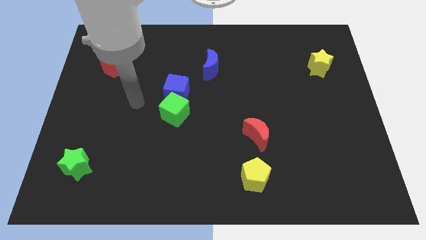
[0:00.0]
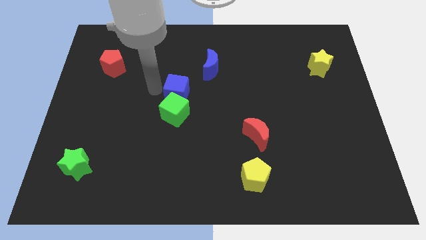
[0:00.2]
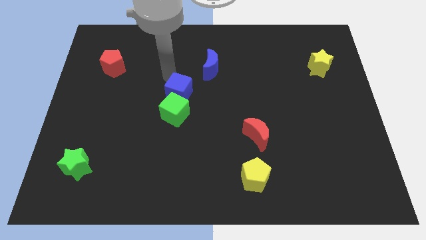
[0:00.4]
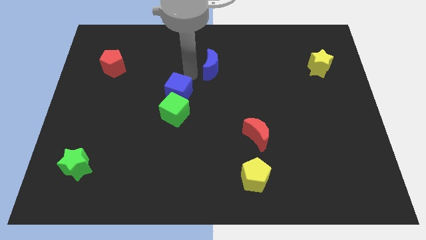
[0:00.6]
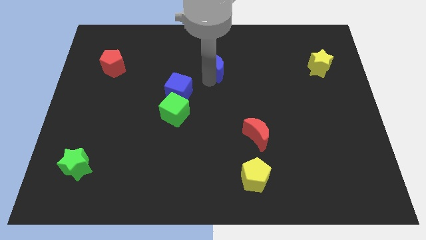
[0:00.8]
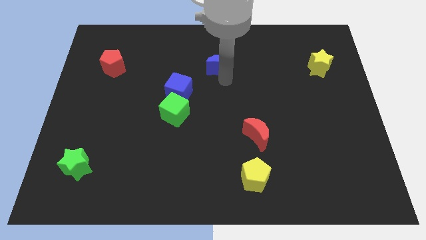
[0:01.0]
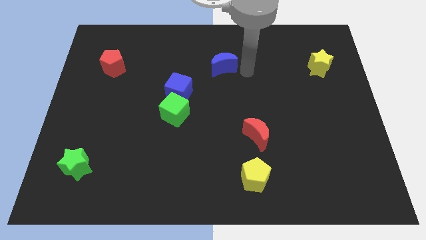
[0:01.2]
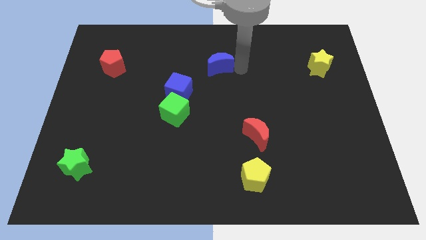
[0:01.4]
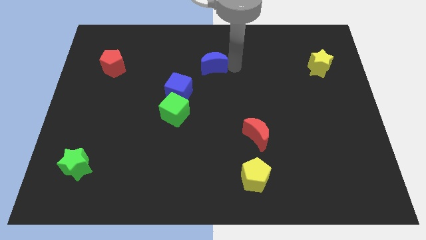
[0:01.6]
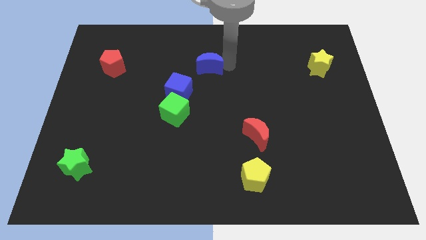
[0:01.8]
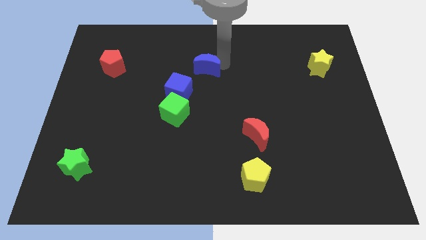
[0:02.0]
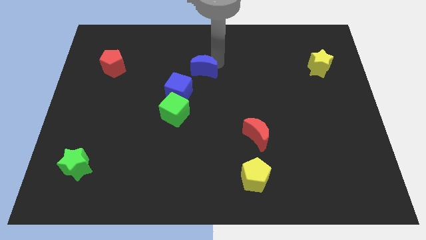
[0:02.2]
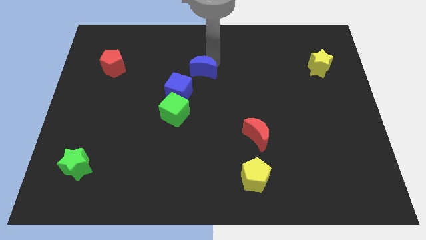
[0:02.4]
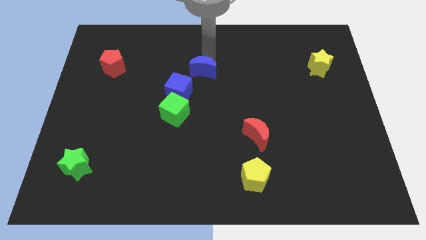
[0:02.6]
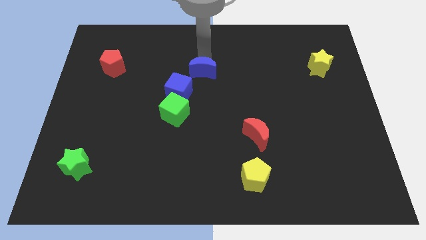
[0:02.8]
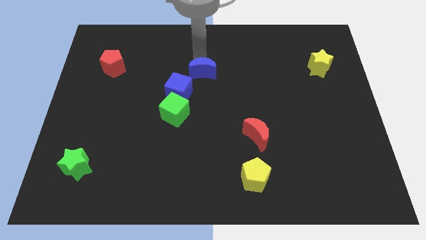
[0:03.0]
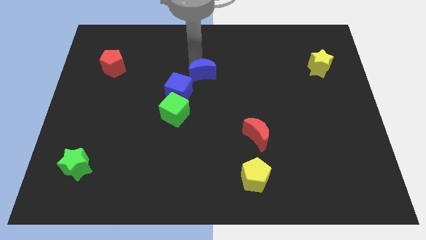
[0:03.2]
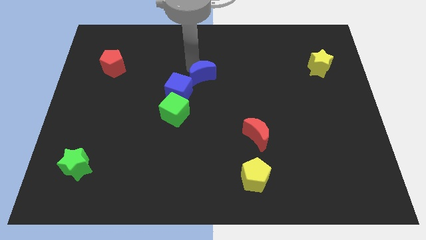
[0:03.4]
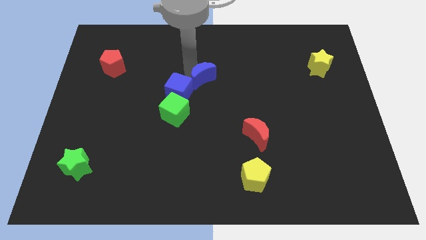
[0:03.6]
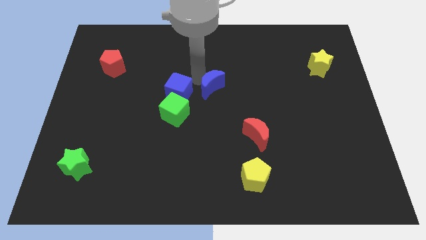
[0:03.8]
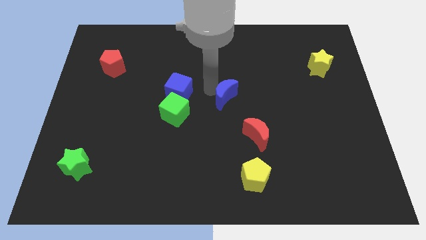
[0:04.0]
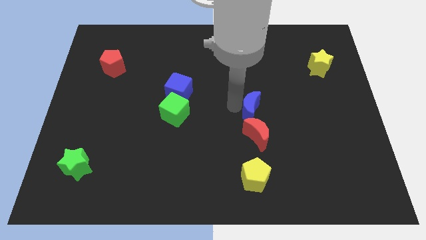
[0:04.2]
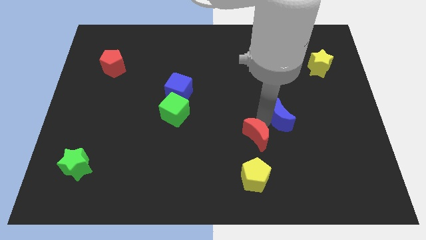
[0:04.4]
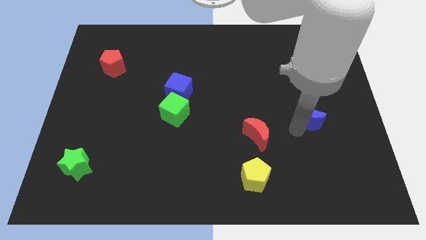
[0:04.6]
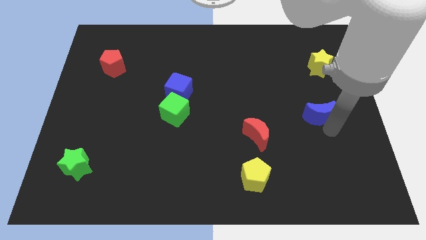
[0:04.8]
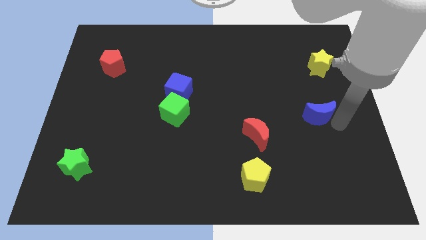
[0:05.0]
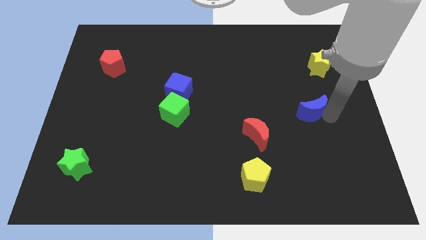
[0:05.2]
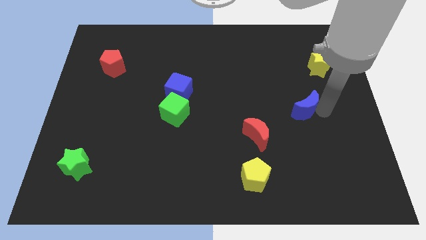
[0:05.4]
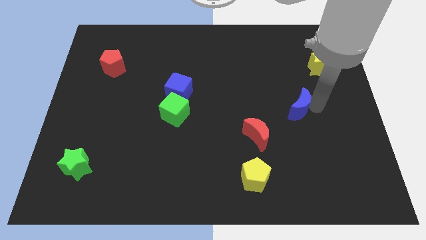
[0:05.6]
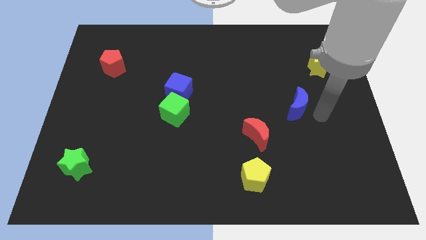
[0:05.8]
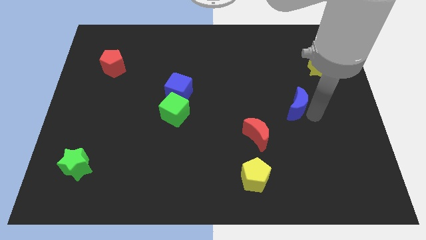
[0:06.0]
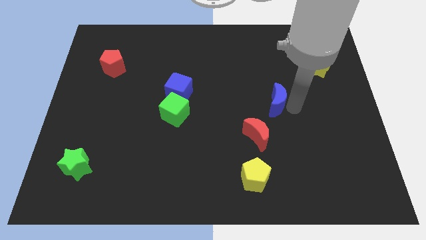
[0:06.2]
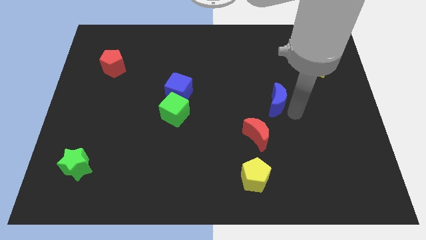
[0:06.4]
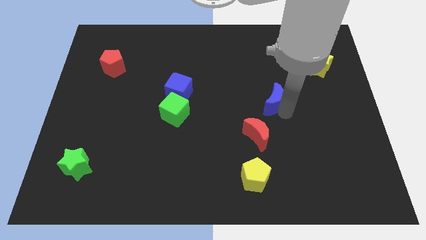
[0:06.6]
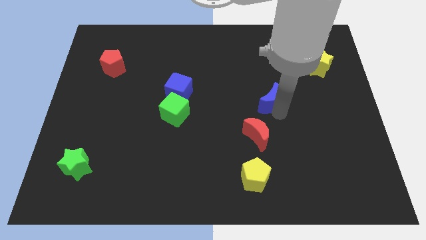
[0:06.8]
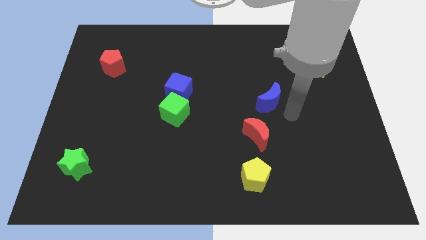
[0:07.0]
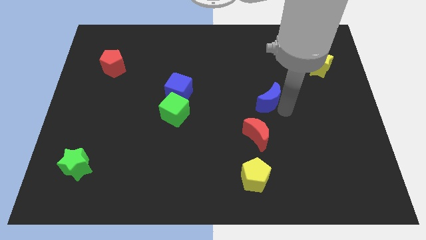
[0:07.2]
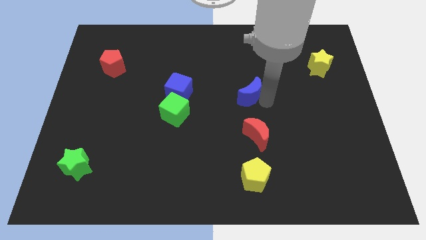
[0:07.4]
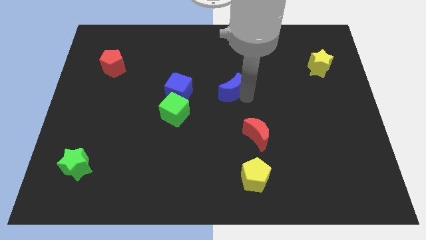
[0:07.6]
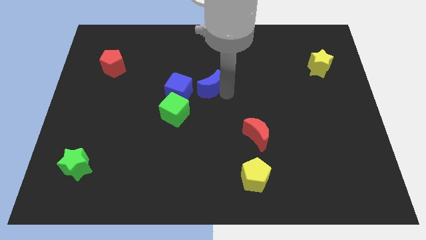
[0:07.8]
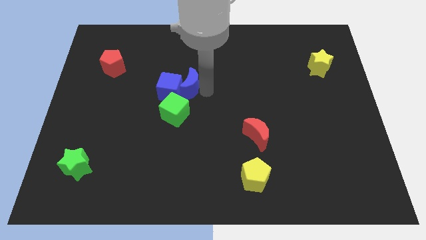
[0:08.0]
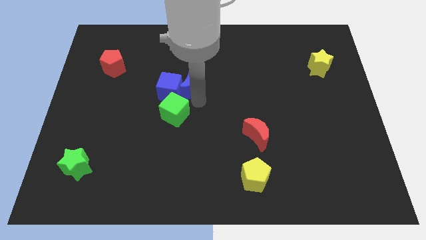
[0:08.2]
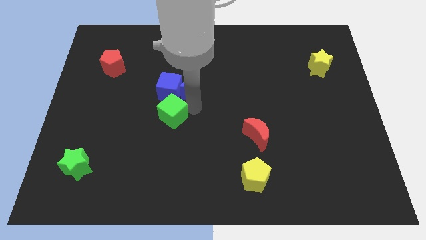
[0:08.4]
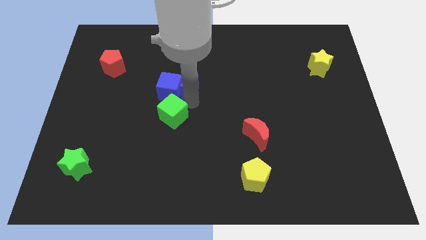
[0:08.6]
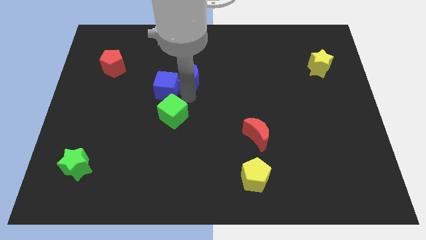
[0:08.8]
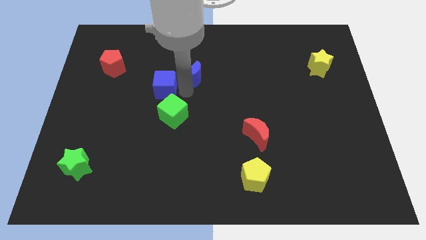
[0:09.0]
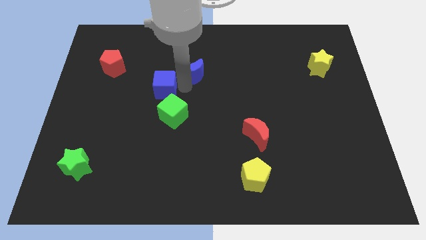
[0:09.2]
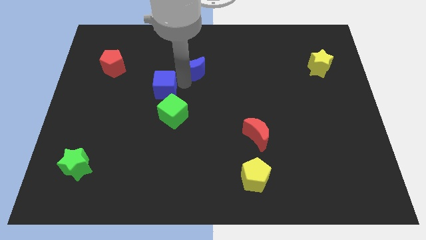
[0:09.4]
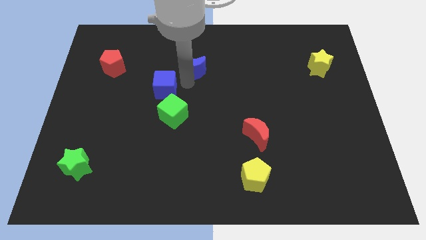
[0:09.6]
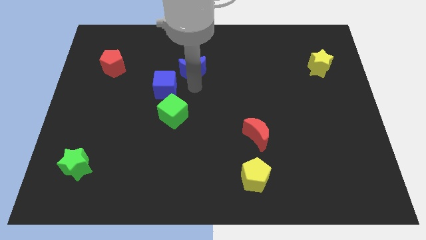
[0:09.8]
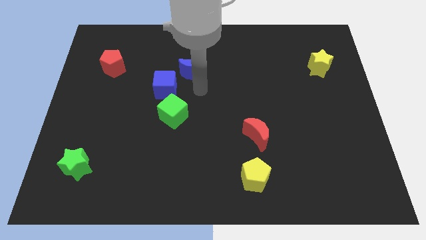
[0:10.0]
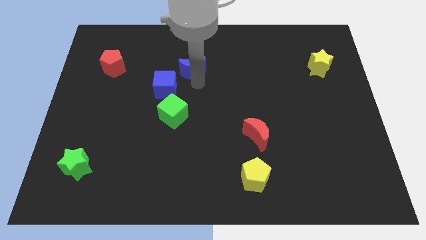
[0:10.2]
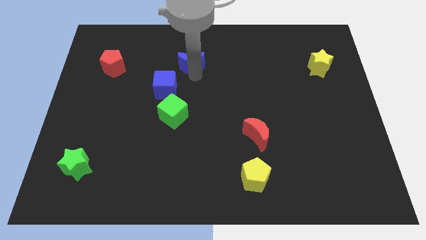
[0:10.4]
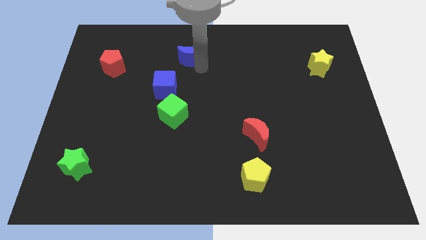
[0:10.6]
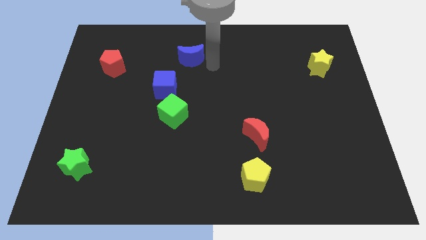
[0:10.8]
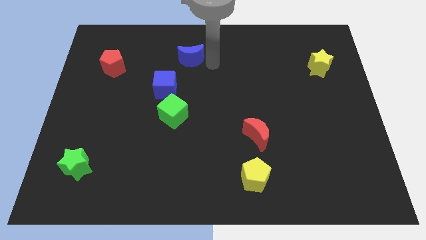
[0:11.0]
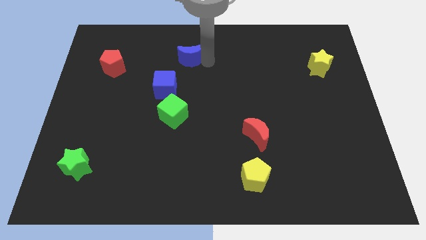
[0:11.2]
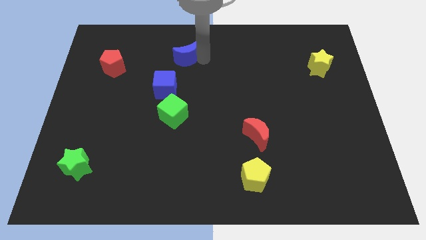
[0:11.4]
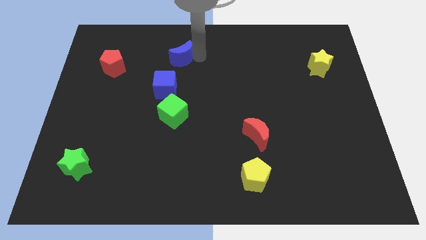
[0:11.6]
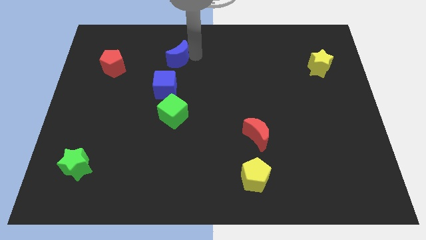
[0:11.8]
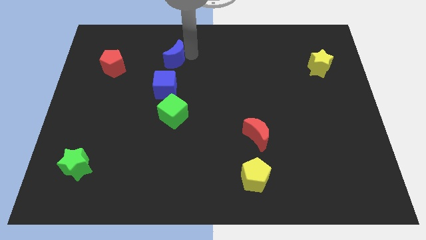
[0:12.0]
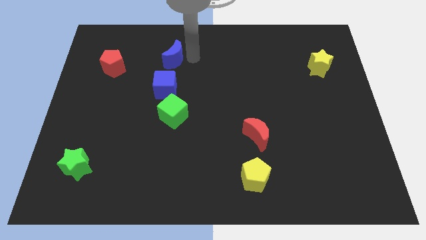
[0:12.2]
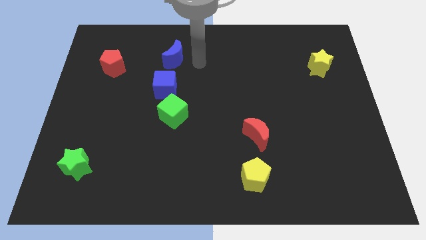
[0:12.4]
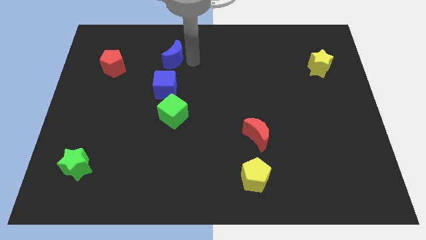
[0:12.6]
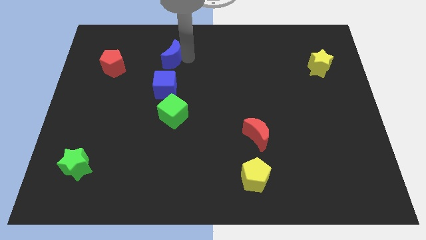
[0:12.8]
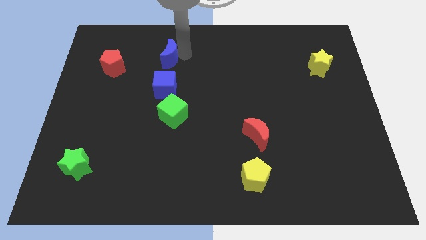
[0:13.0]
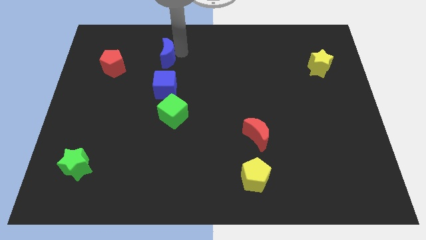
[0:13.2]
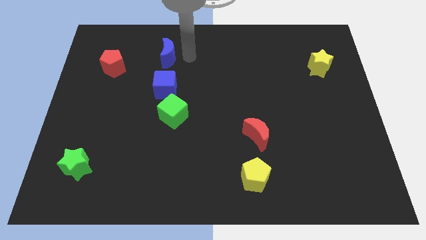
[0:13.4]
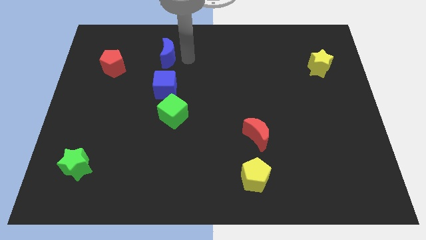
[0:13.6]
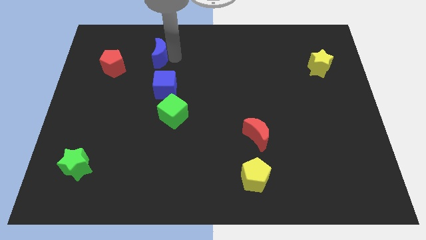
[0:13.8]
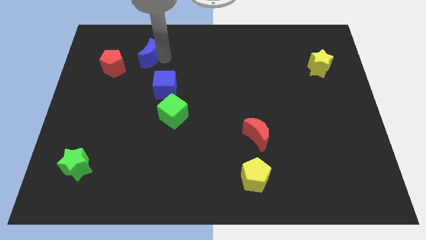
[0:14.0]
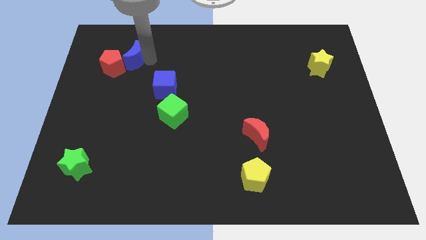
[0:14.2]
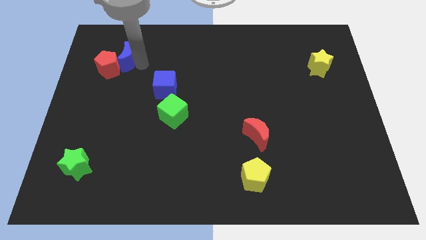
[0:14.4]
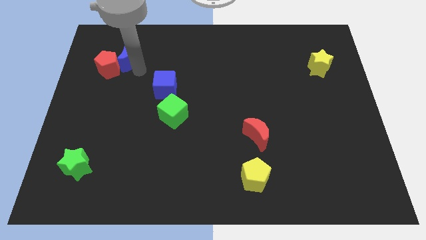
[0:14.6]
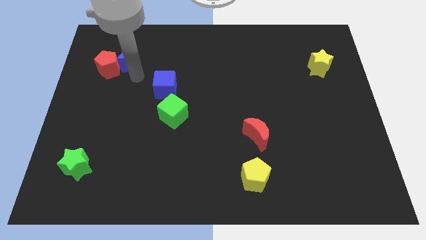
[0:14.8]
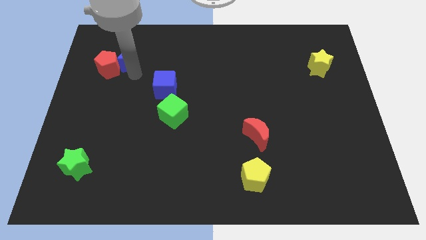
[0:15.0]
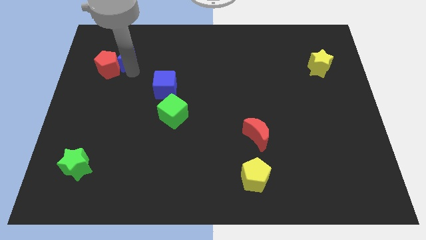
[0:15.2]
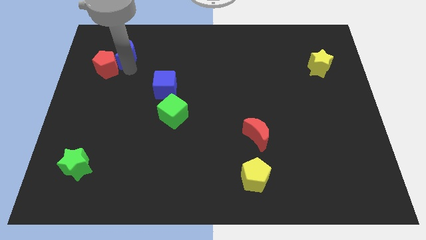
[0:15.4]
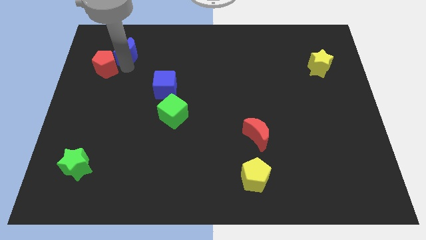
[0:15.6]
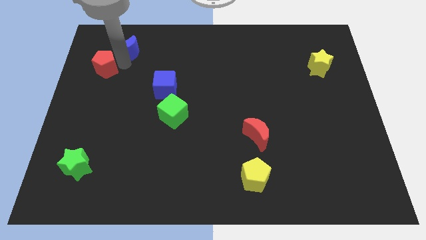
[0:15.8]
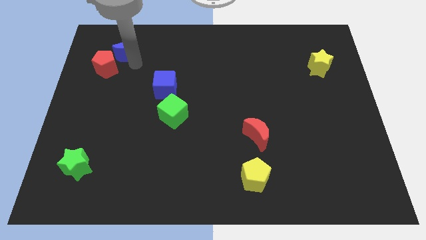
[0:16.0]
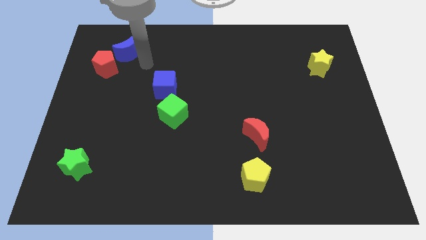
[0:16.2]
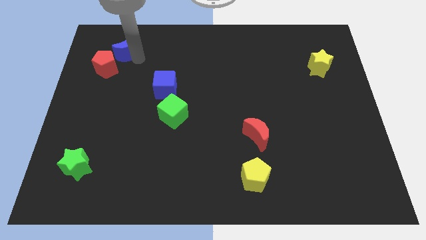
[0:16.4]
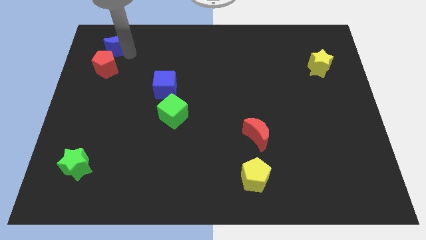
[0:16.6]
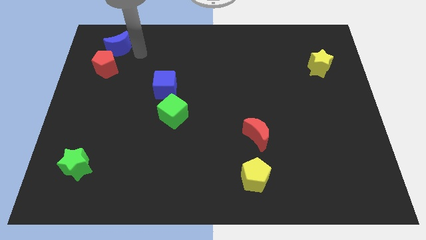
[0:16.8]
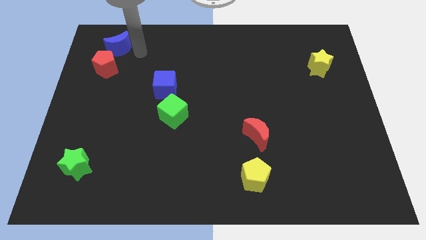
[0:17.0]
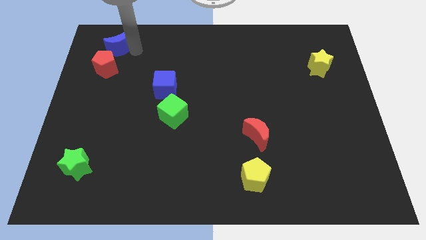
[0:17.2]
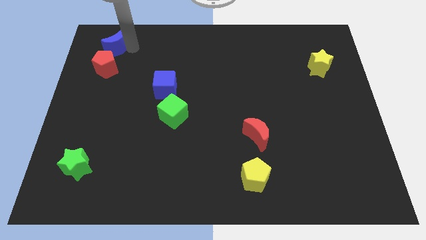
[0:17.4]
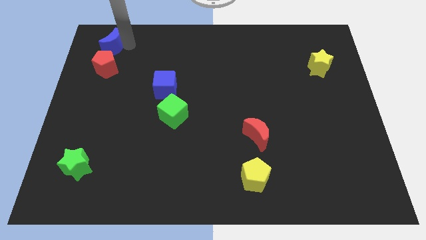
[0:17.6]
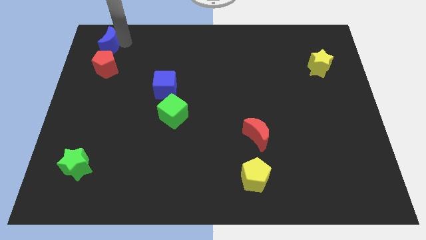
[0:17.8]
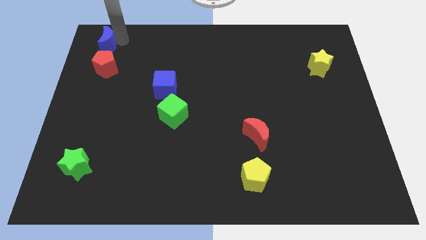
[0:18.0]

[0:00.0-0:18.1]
push the blue moon to the top left of the board
